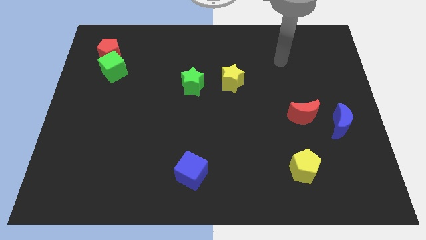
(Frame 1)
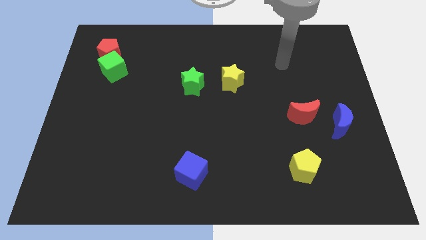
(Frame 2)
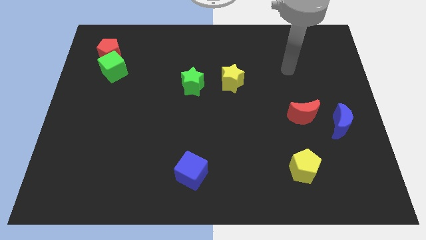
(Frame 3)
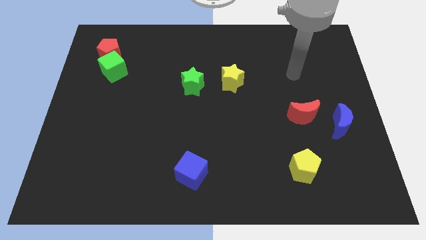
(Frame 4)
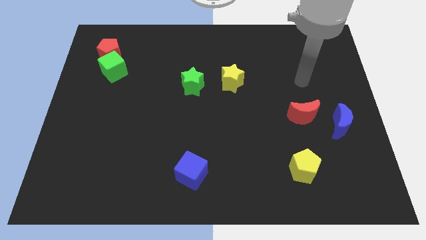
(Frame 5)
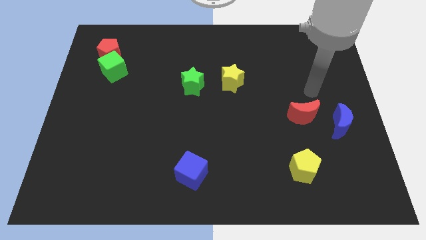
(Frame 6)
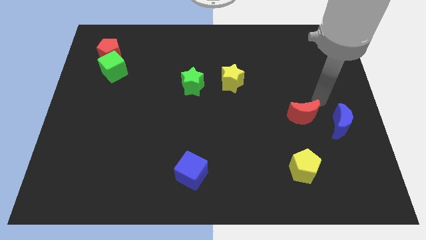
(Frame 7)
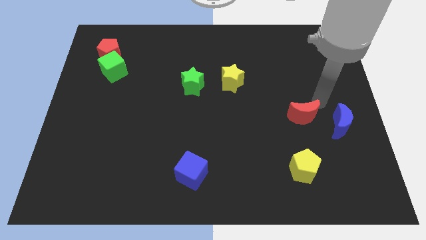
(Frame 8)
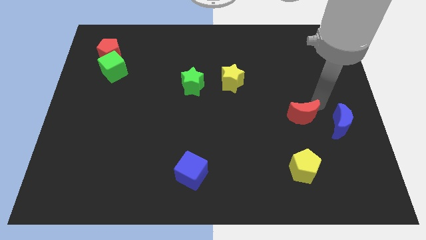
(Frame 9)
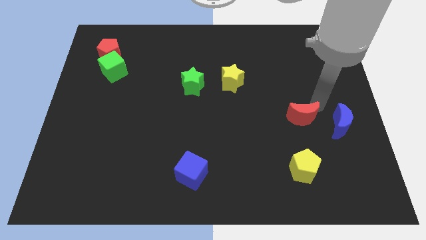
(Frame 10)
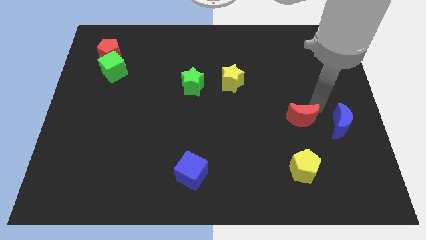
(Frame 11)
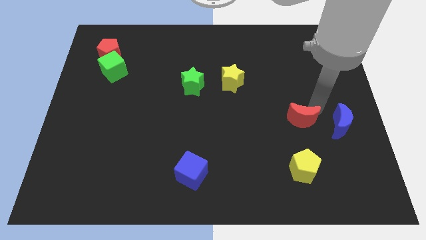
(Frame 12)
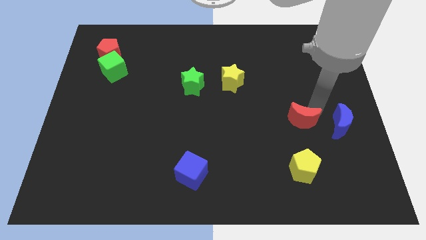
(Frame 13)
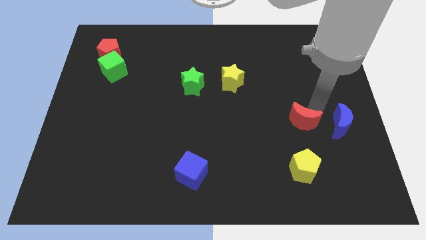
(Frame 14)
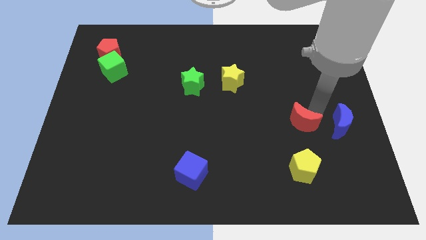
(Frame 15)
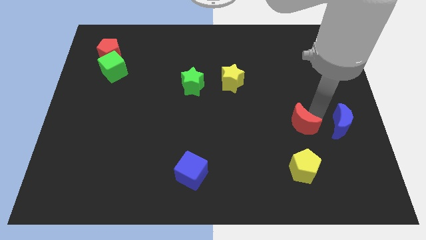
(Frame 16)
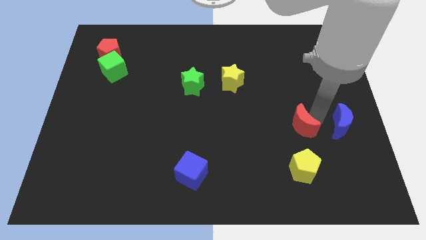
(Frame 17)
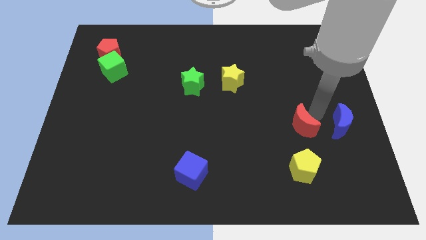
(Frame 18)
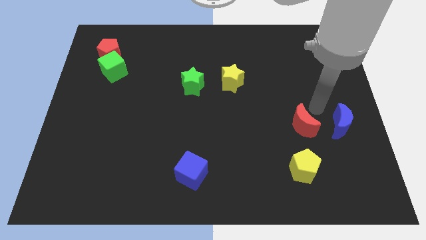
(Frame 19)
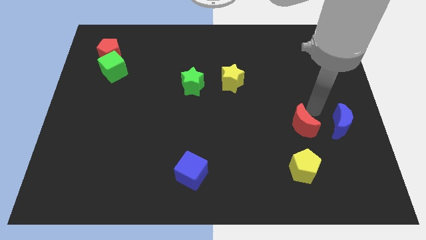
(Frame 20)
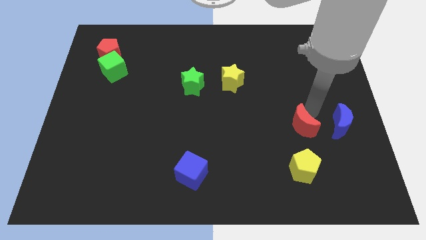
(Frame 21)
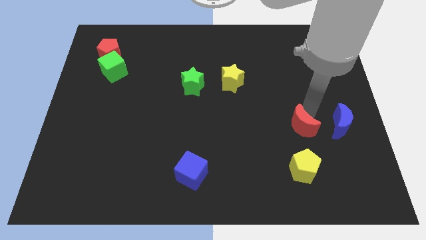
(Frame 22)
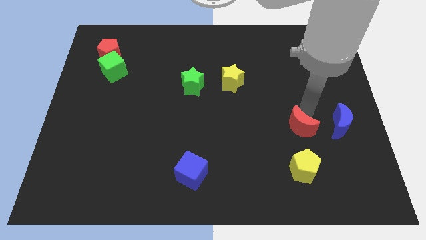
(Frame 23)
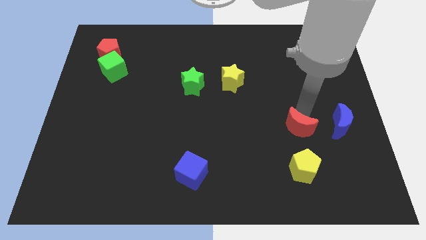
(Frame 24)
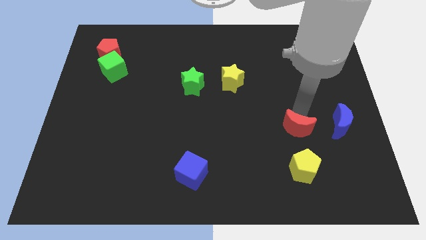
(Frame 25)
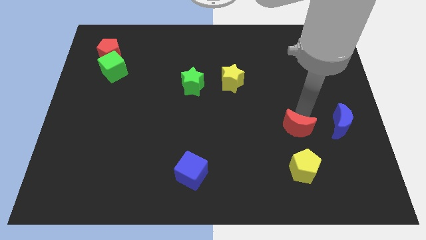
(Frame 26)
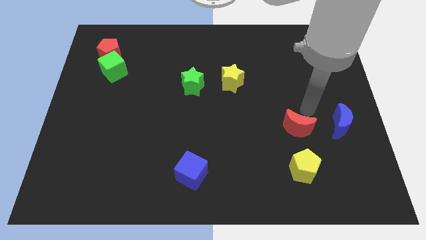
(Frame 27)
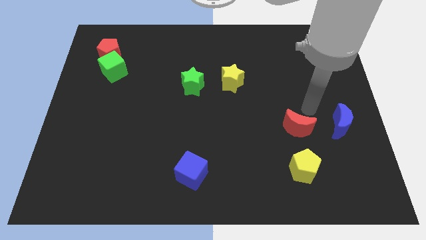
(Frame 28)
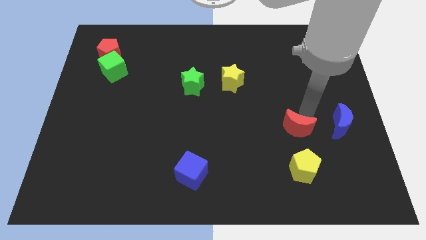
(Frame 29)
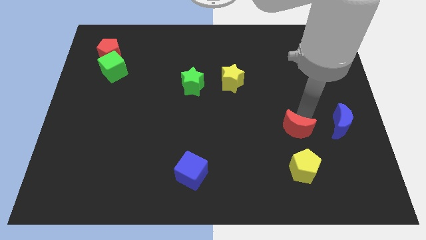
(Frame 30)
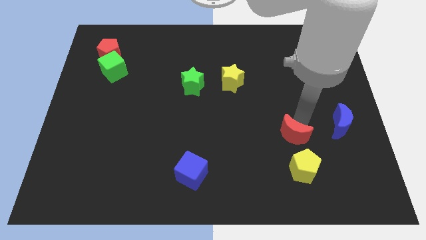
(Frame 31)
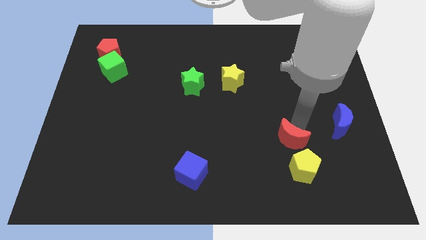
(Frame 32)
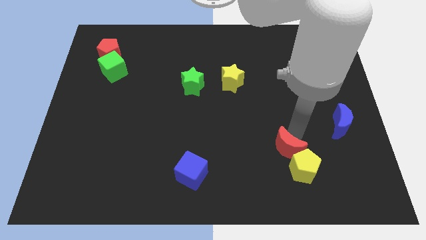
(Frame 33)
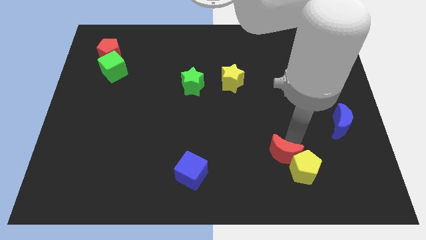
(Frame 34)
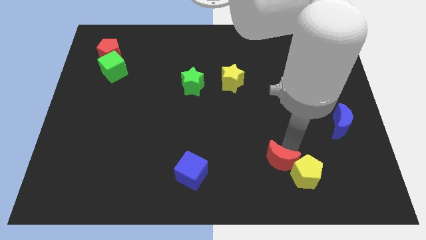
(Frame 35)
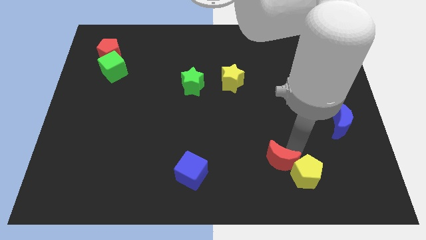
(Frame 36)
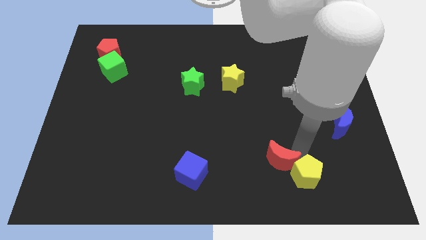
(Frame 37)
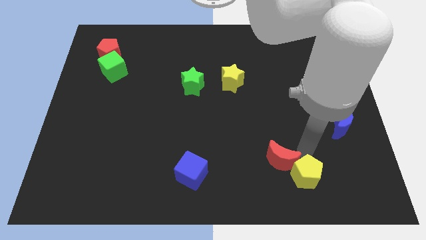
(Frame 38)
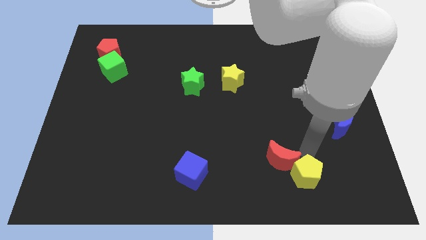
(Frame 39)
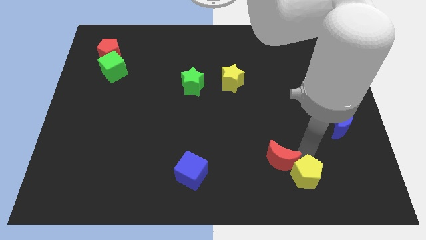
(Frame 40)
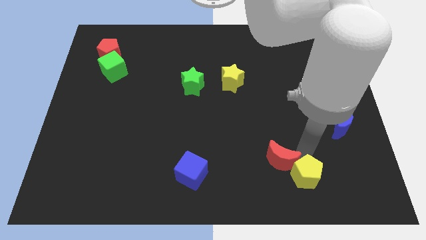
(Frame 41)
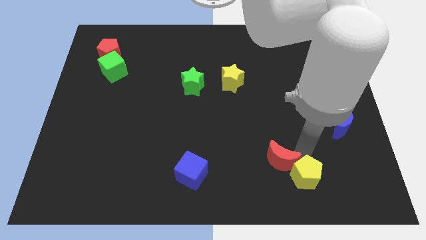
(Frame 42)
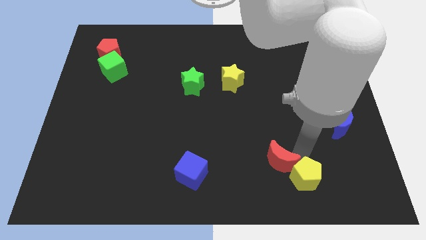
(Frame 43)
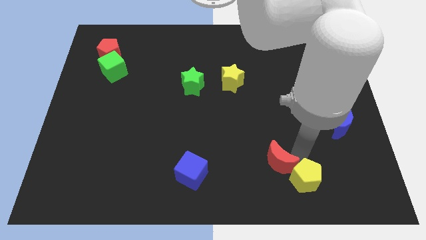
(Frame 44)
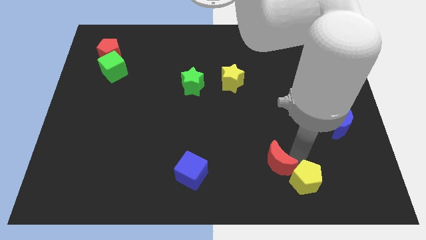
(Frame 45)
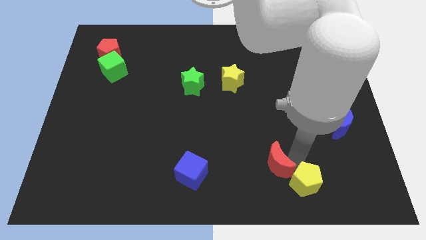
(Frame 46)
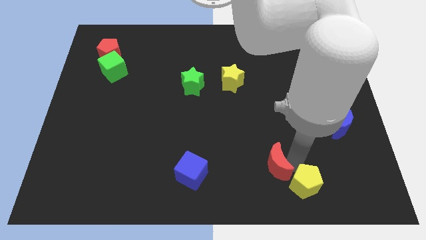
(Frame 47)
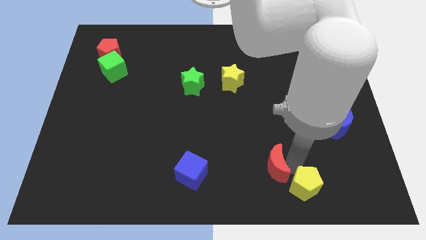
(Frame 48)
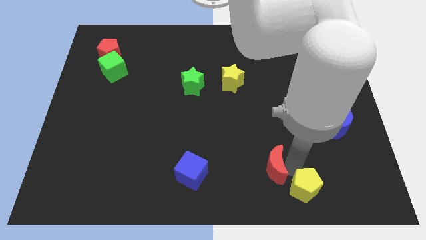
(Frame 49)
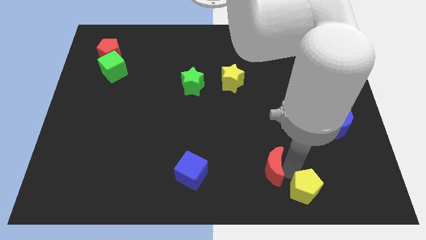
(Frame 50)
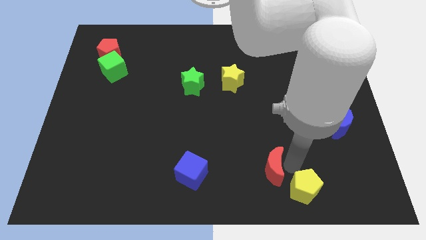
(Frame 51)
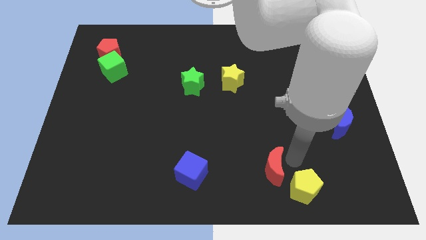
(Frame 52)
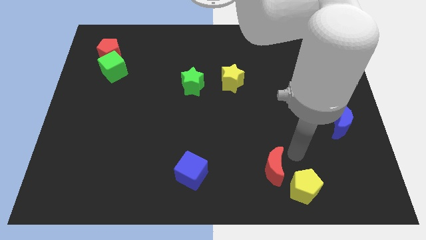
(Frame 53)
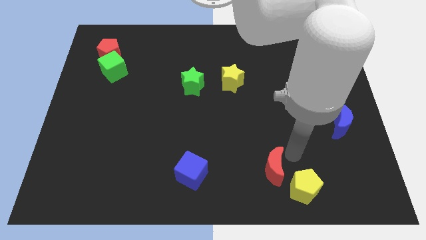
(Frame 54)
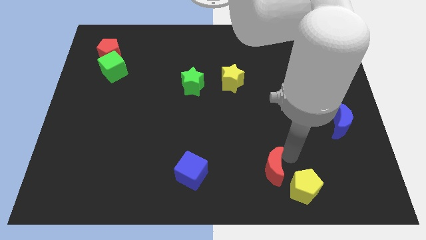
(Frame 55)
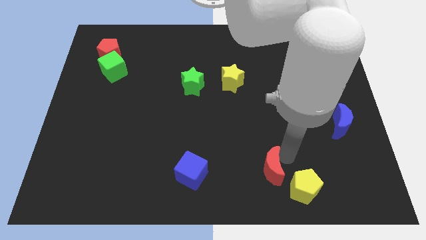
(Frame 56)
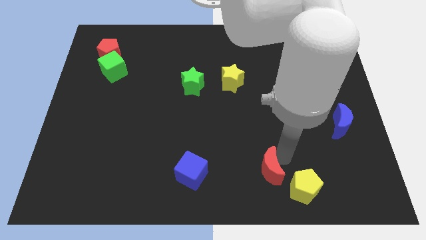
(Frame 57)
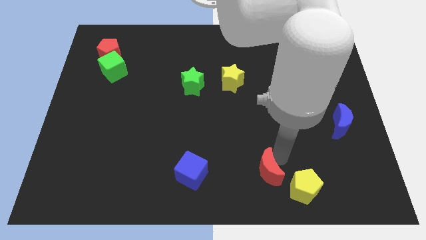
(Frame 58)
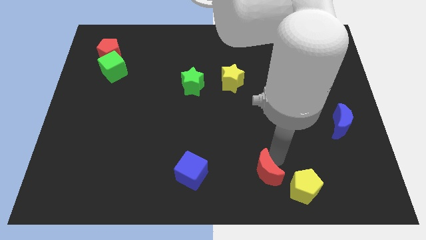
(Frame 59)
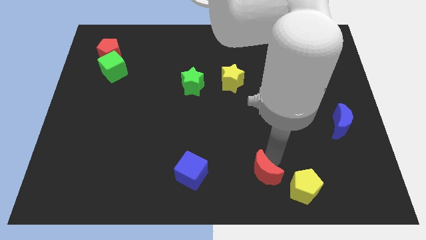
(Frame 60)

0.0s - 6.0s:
slide the red moon to the bottom
